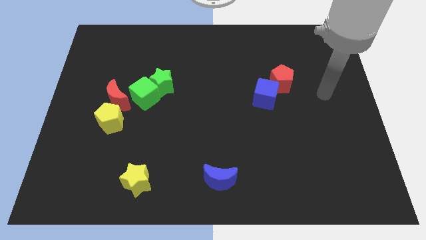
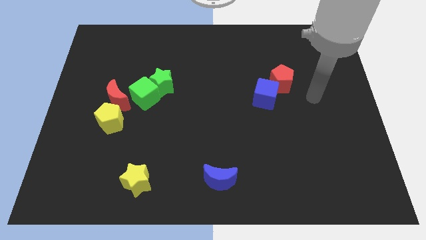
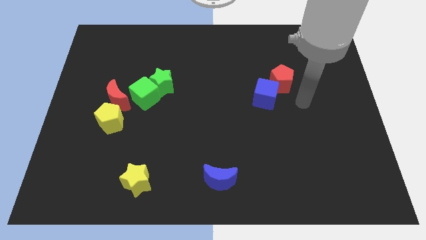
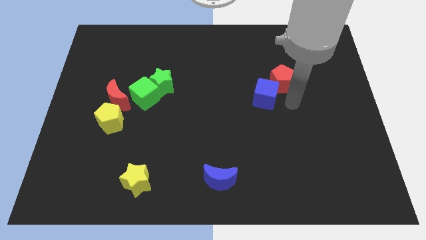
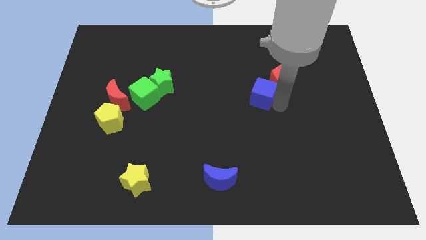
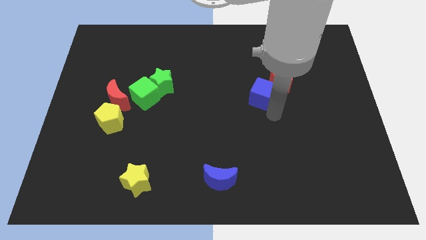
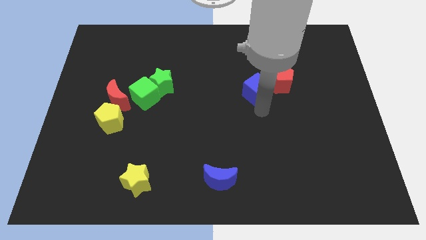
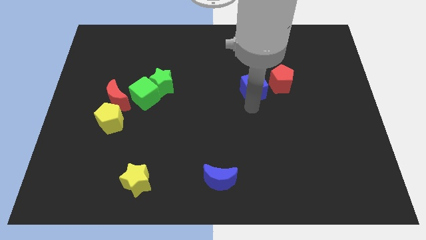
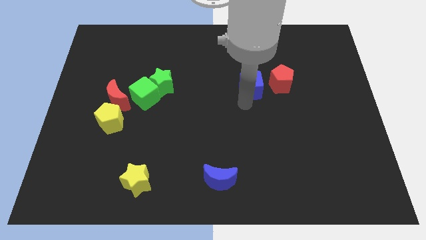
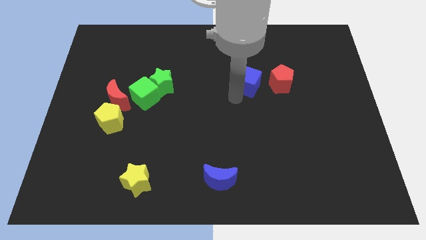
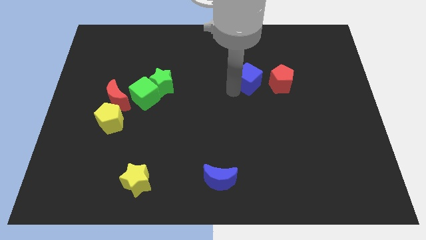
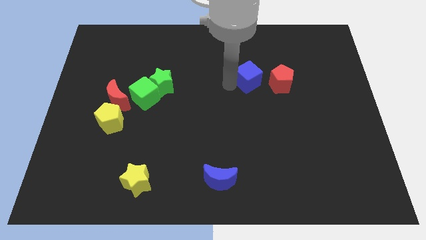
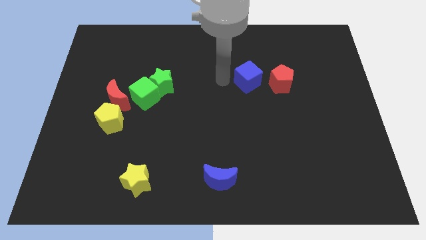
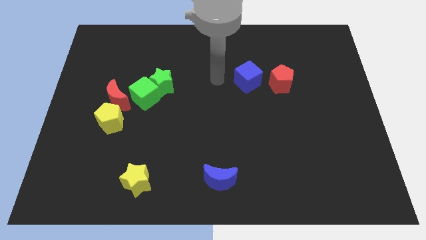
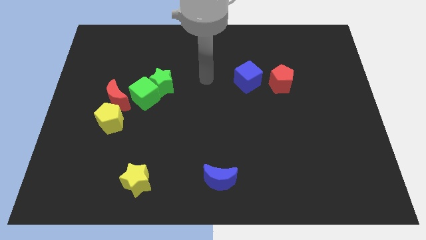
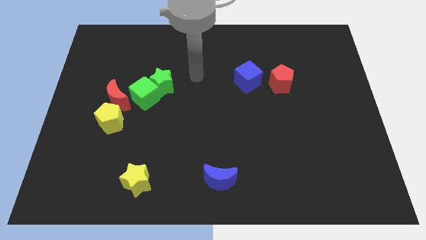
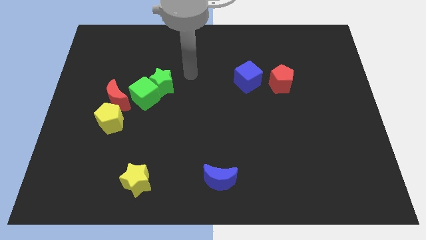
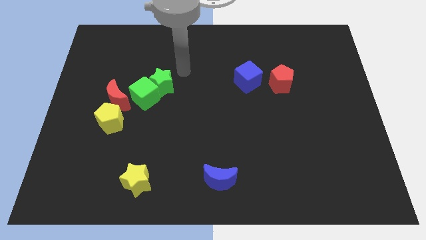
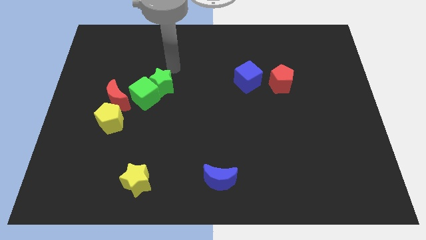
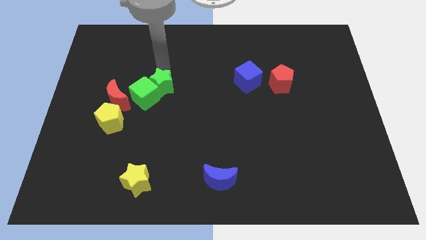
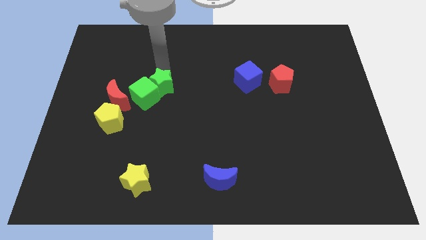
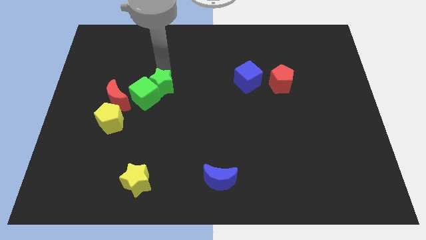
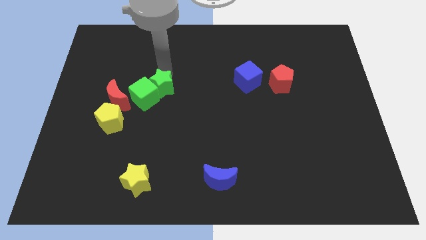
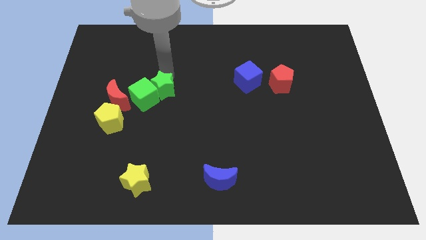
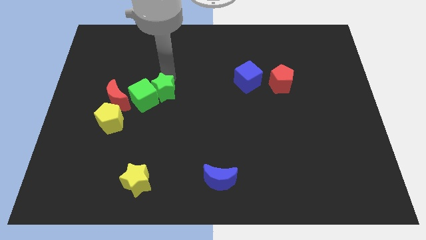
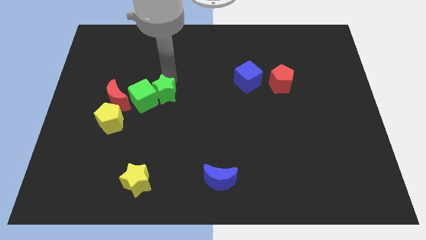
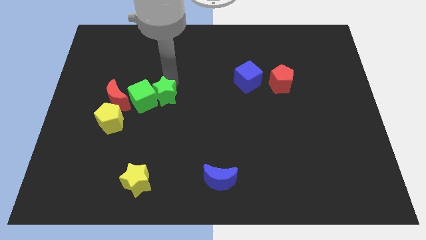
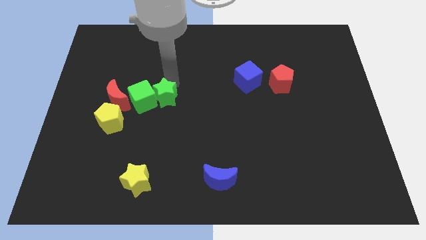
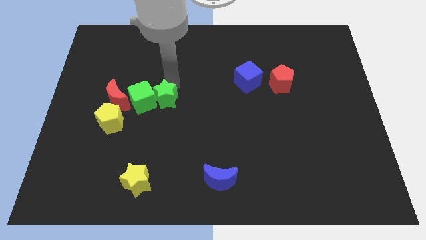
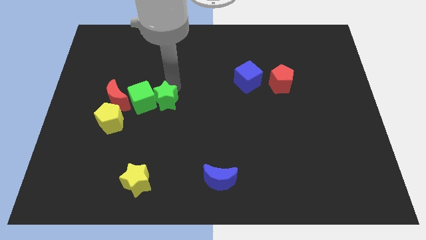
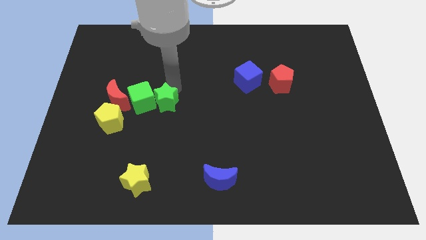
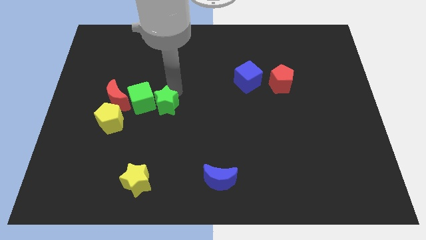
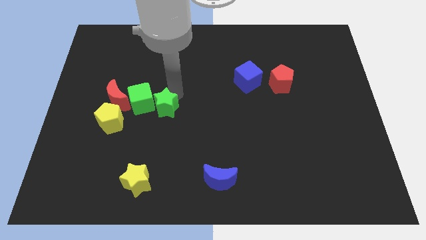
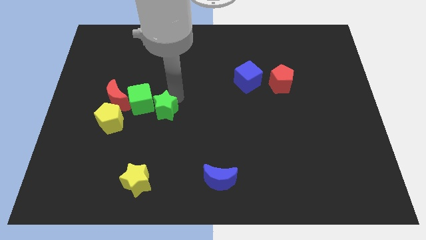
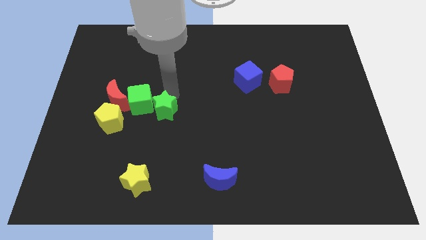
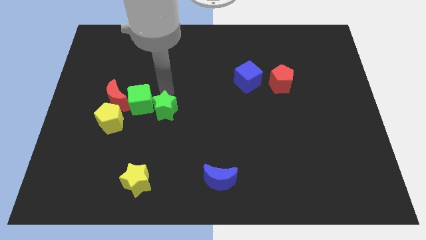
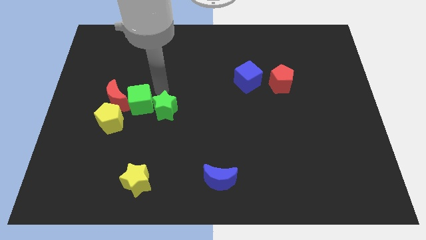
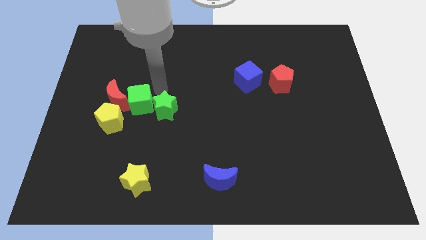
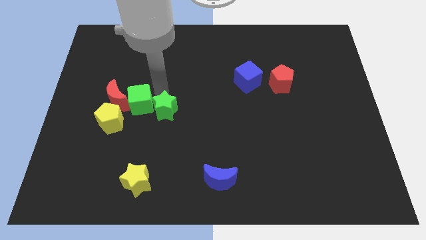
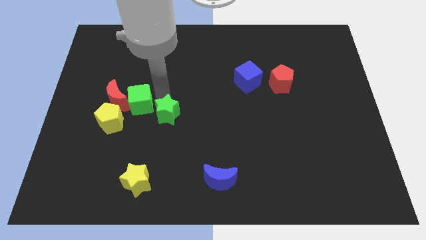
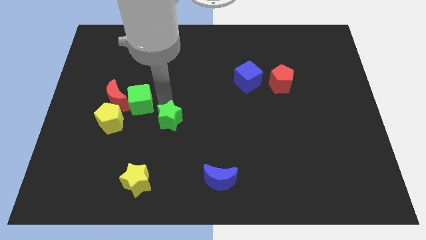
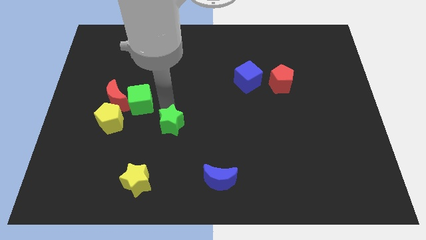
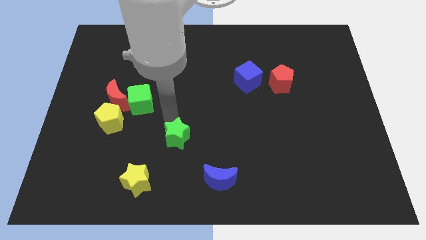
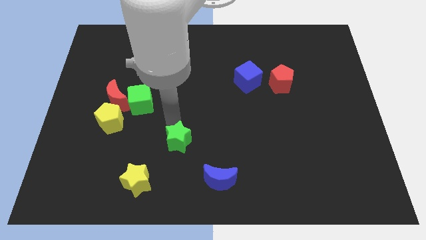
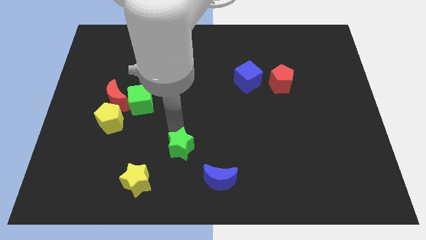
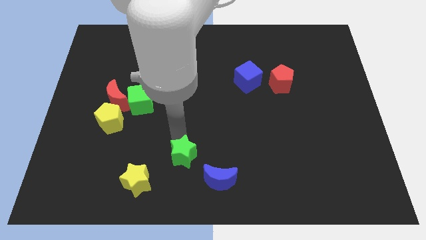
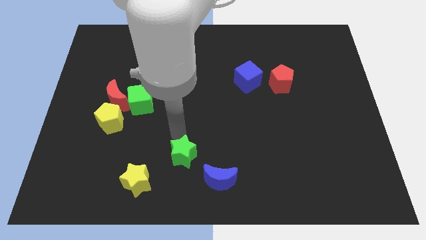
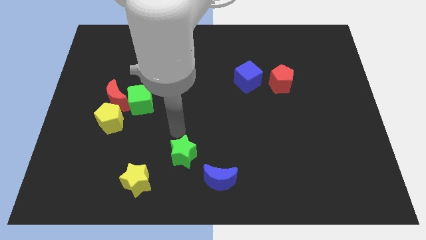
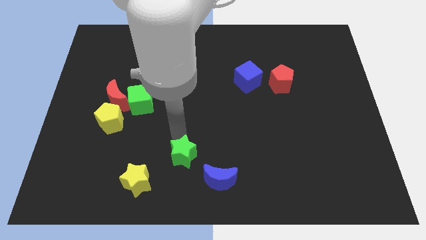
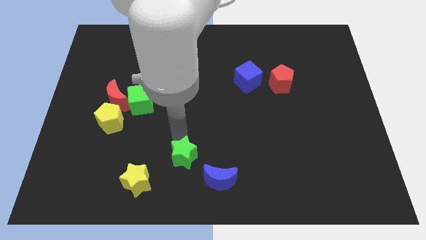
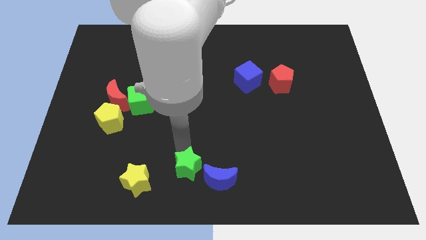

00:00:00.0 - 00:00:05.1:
slide the green star to the bottom

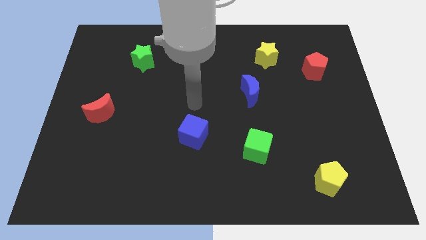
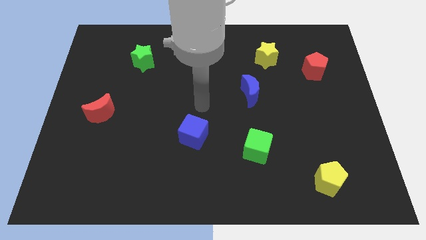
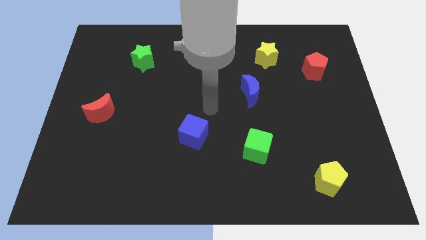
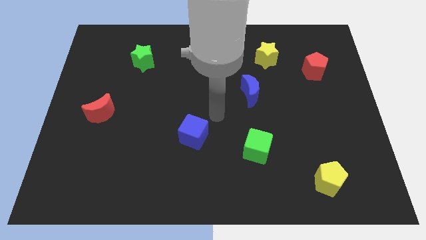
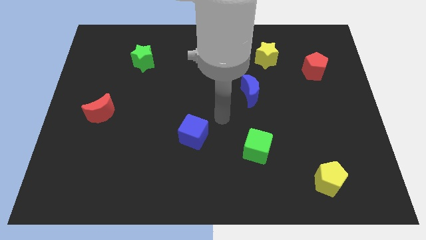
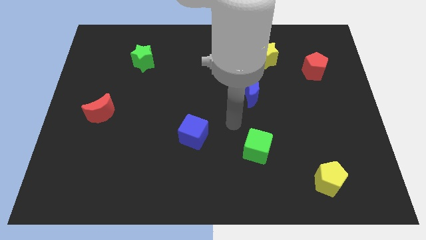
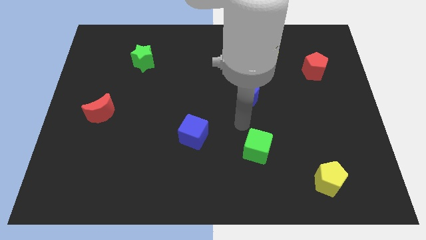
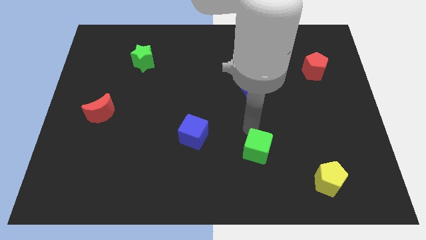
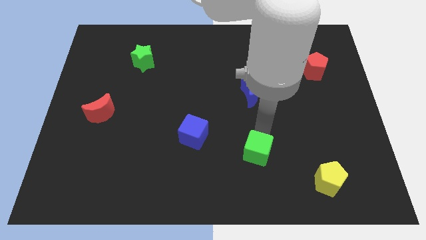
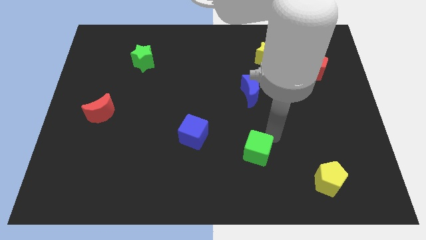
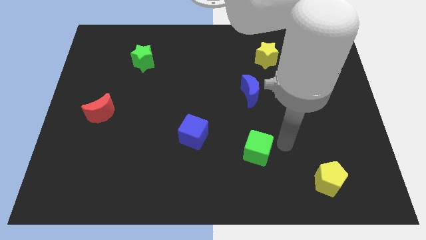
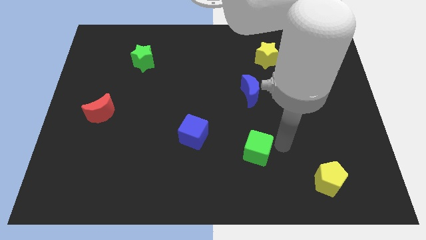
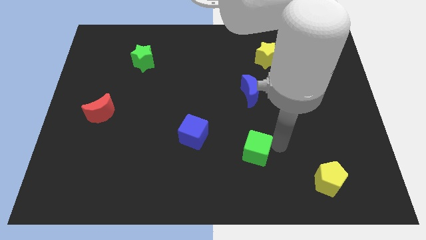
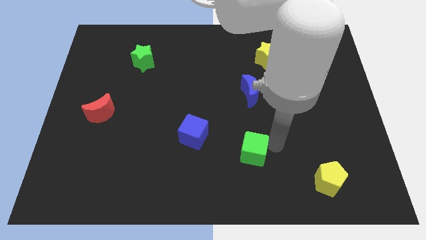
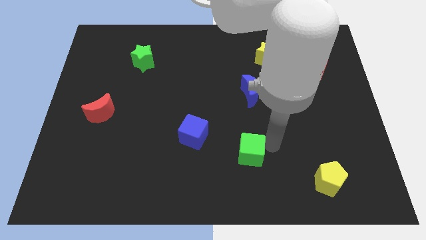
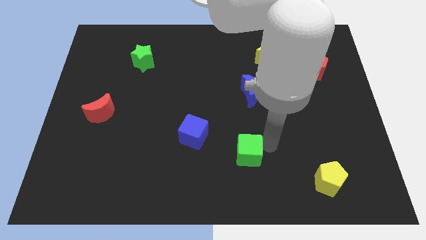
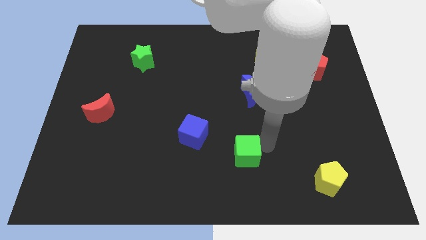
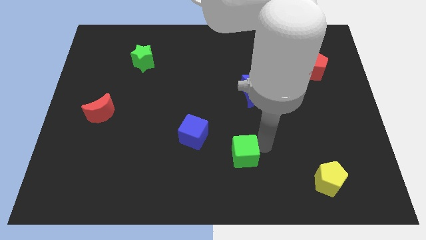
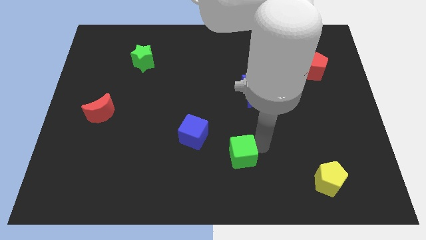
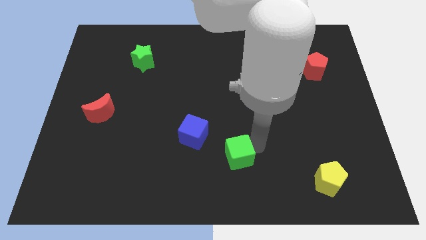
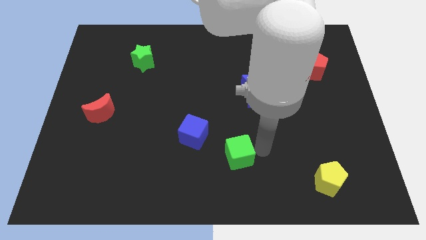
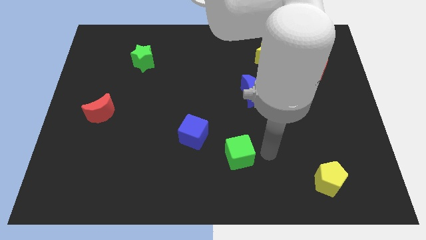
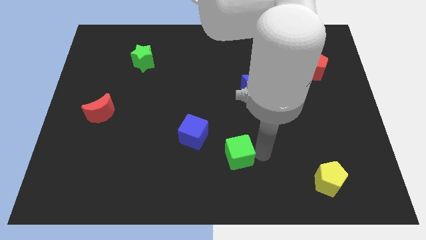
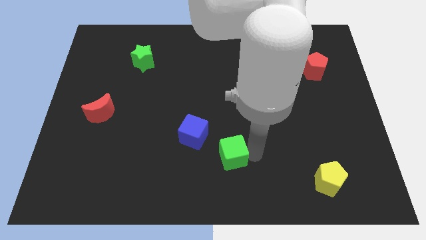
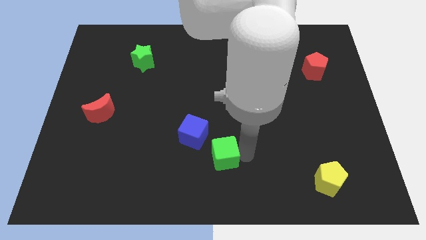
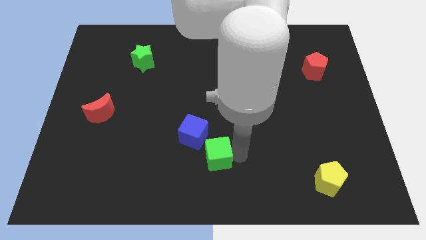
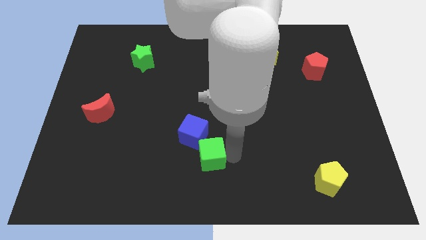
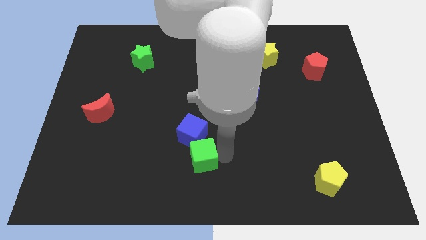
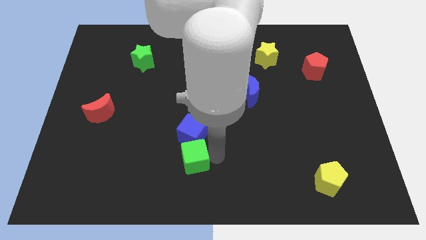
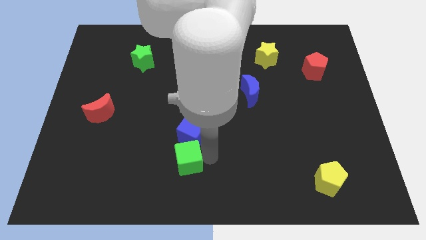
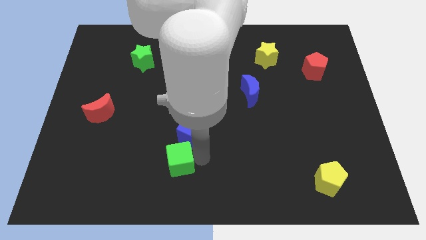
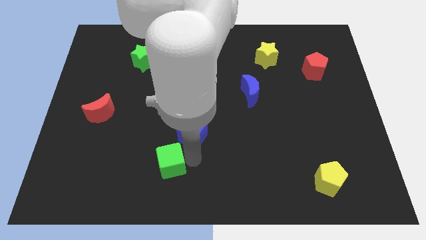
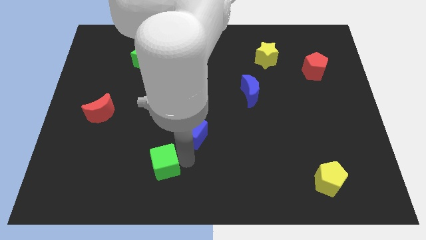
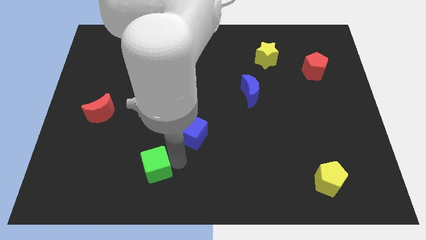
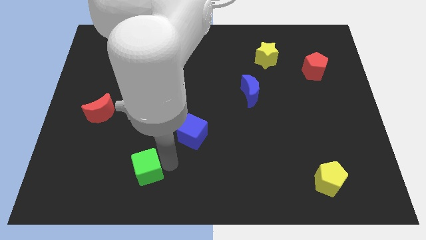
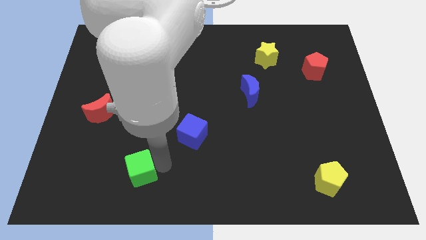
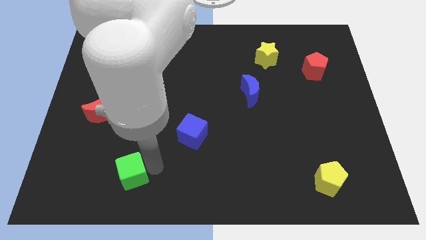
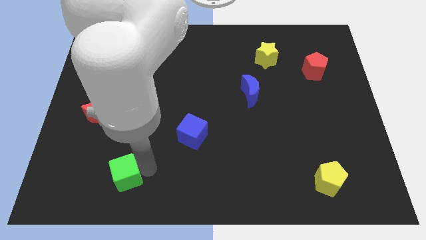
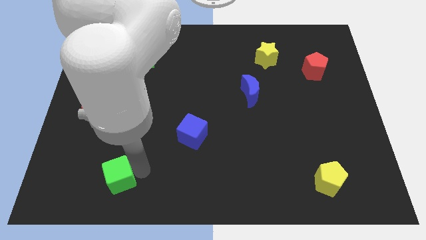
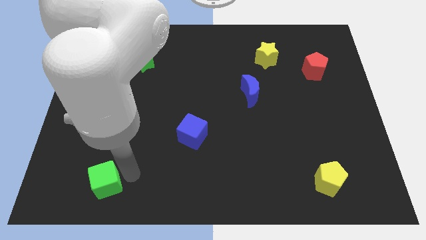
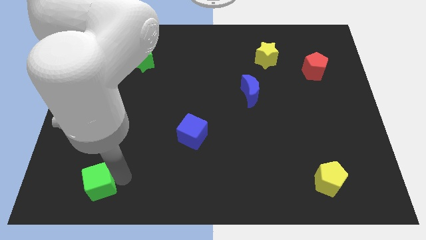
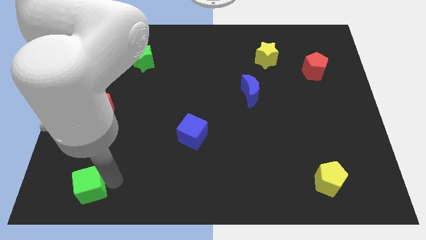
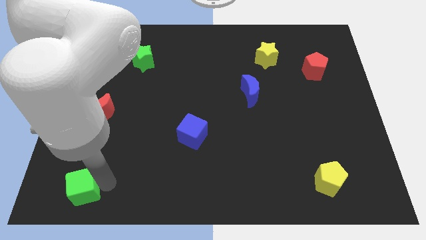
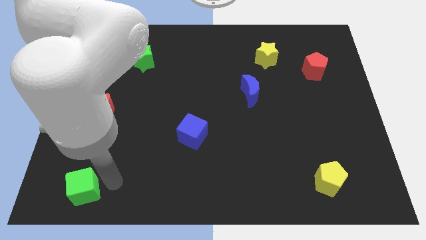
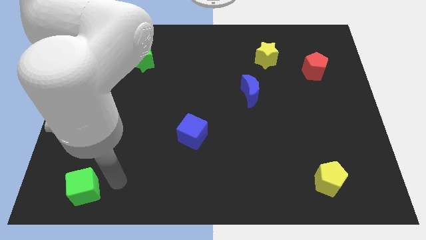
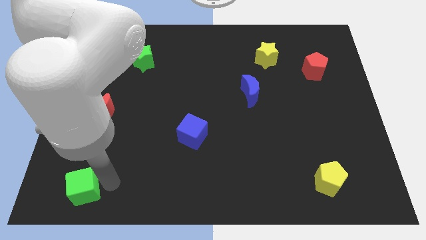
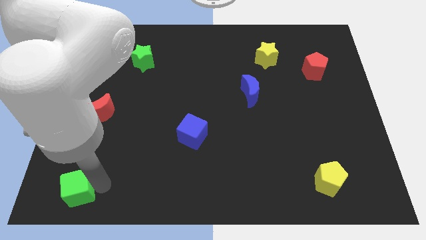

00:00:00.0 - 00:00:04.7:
push the green cube to the bottom left of the board
